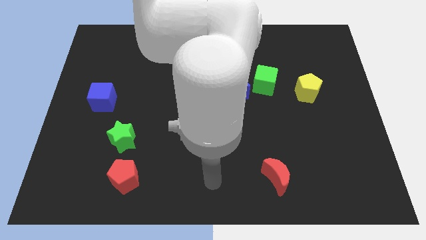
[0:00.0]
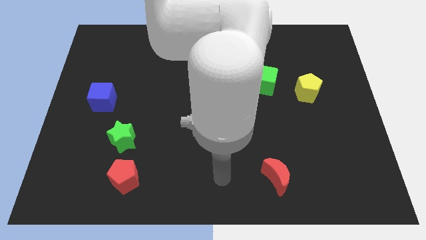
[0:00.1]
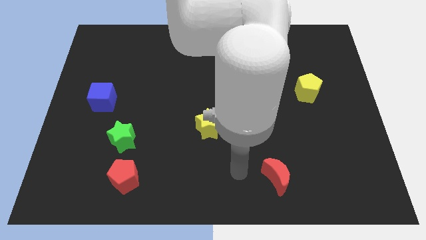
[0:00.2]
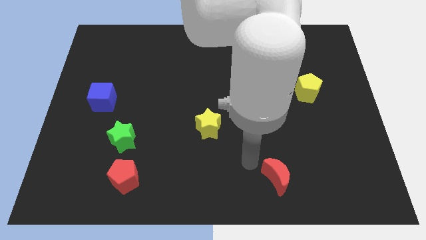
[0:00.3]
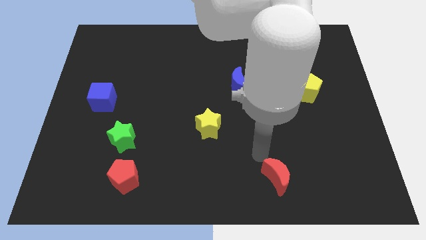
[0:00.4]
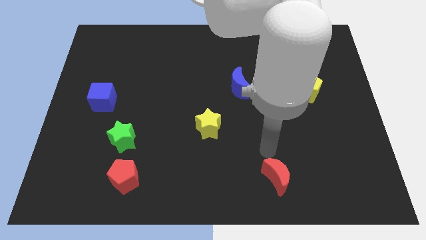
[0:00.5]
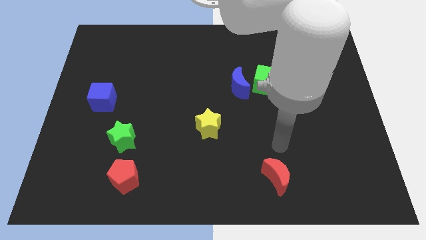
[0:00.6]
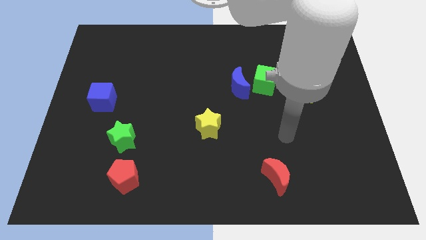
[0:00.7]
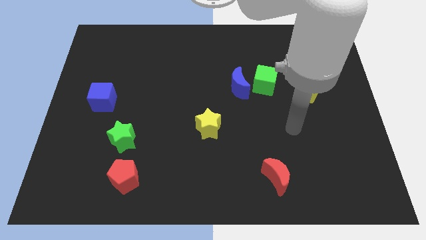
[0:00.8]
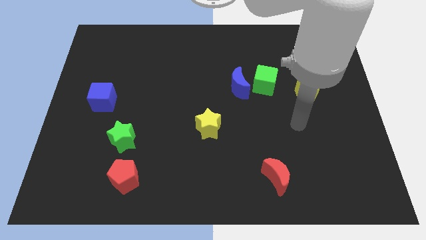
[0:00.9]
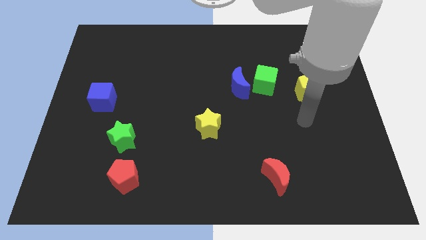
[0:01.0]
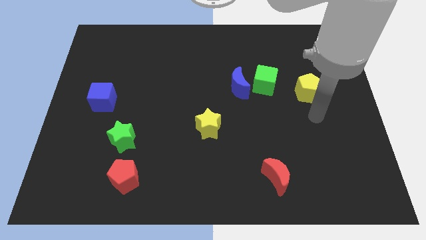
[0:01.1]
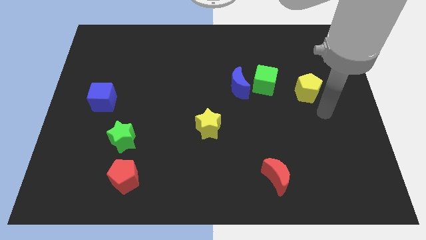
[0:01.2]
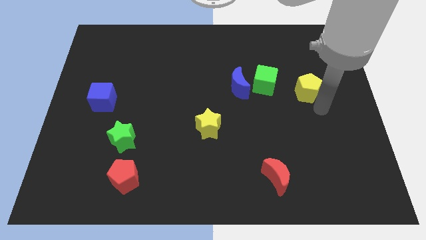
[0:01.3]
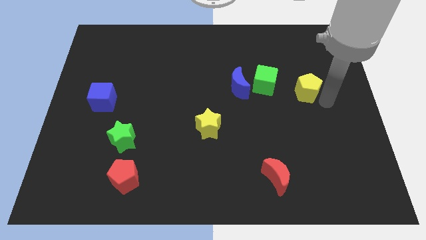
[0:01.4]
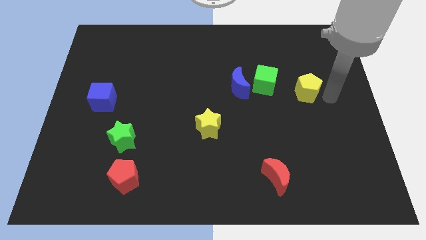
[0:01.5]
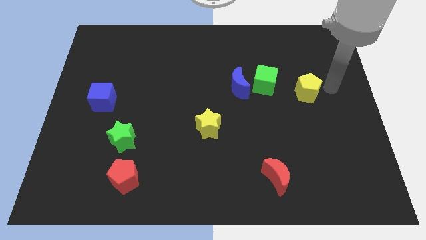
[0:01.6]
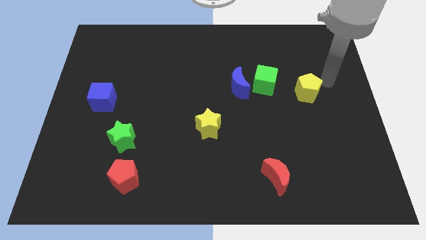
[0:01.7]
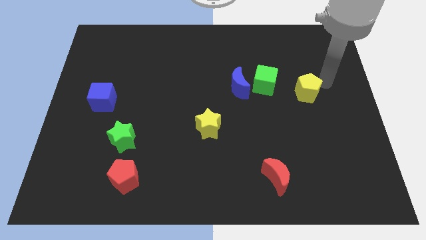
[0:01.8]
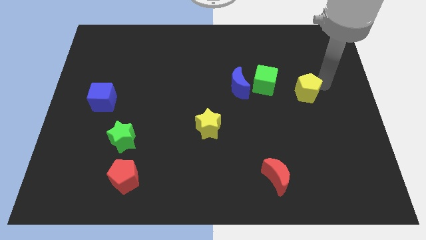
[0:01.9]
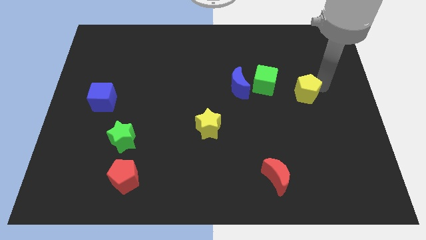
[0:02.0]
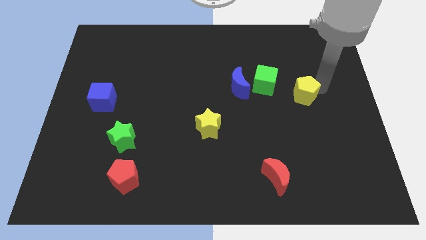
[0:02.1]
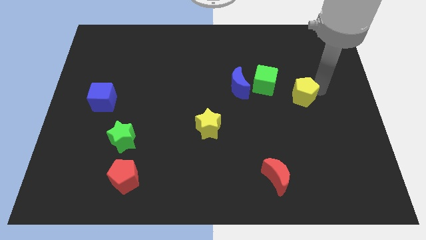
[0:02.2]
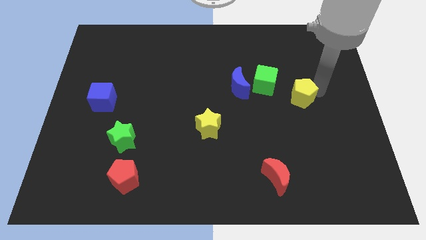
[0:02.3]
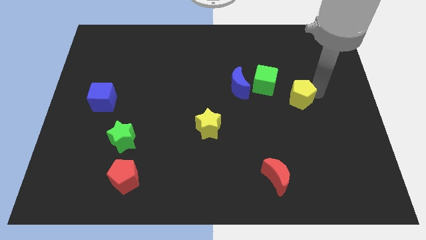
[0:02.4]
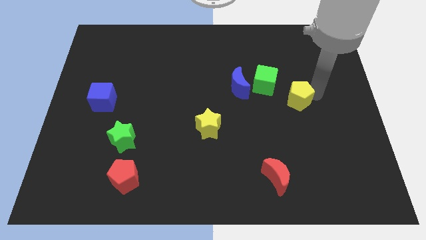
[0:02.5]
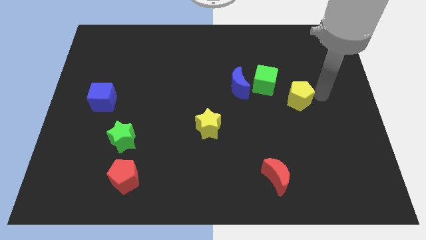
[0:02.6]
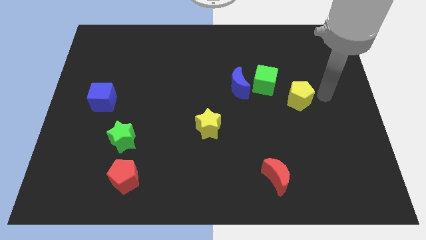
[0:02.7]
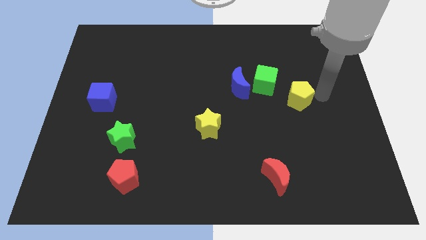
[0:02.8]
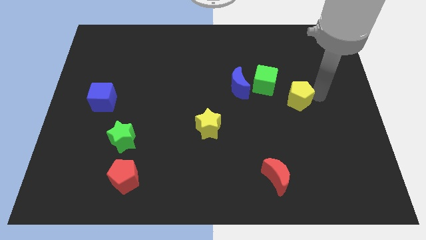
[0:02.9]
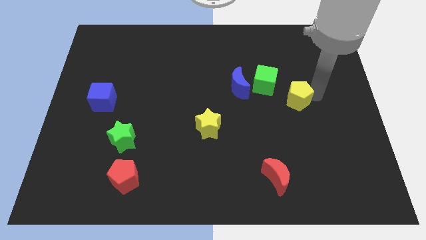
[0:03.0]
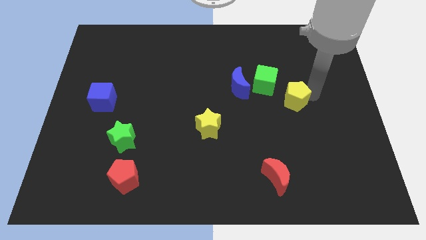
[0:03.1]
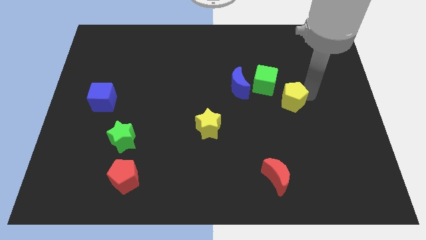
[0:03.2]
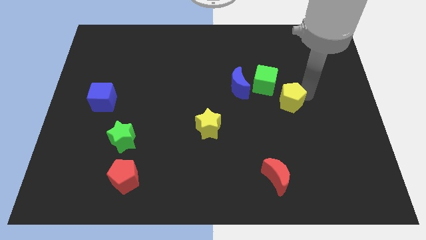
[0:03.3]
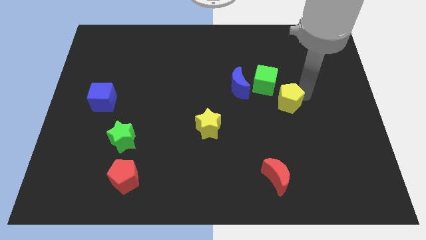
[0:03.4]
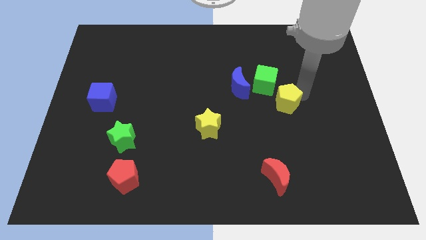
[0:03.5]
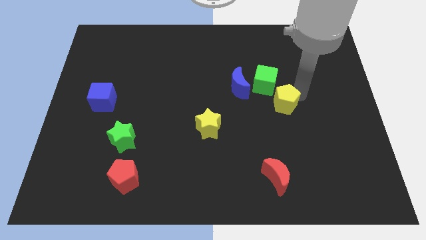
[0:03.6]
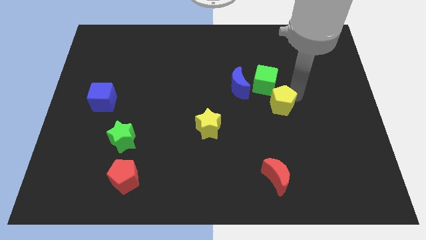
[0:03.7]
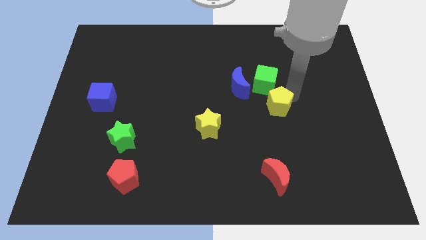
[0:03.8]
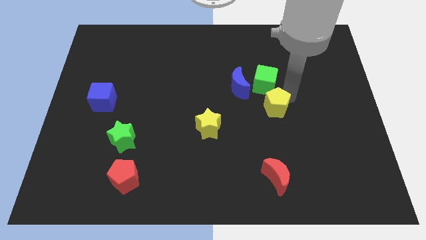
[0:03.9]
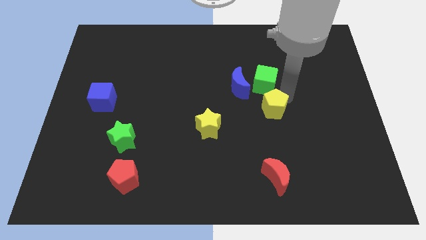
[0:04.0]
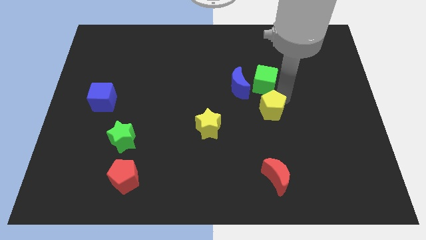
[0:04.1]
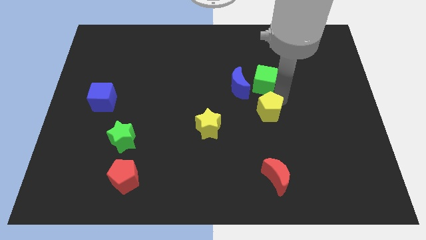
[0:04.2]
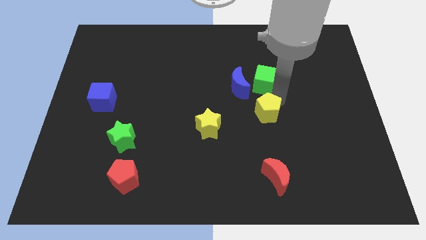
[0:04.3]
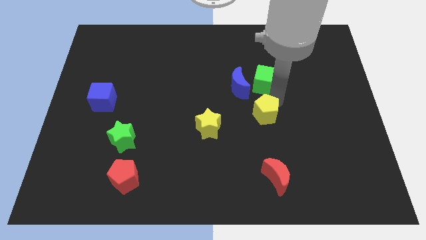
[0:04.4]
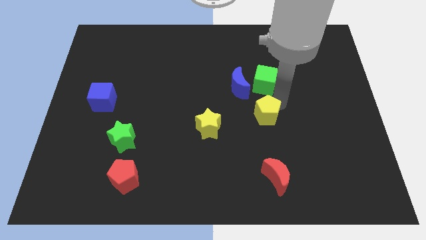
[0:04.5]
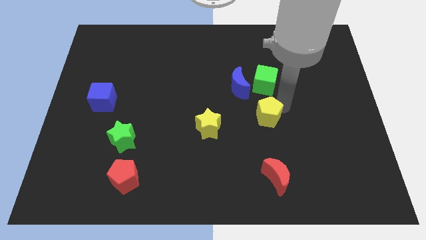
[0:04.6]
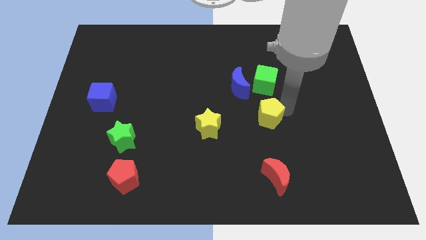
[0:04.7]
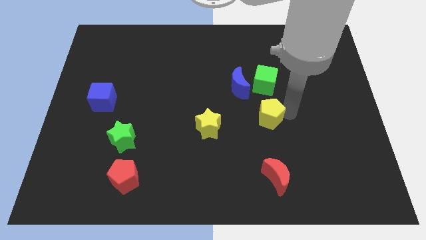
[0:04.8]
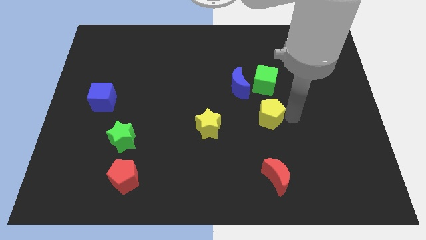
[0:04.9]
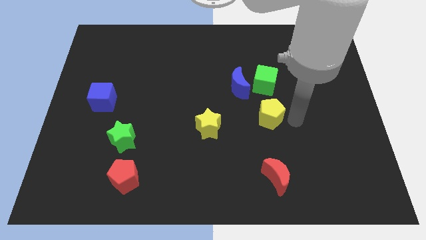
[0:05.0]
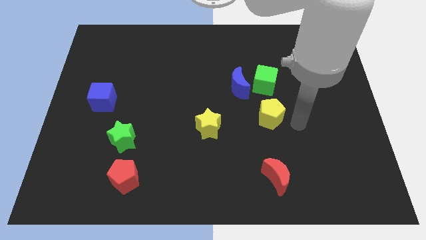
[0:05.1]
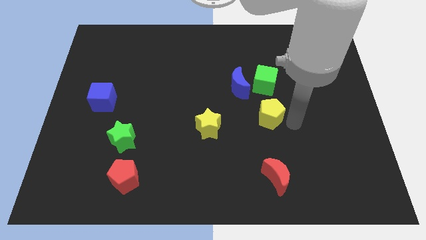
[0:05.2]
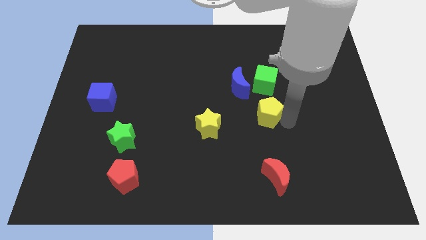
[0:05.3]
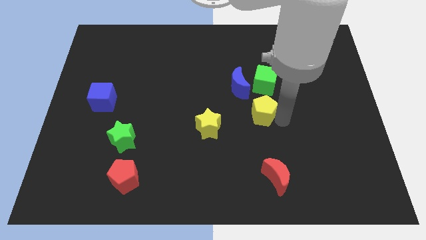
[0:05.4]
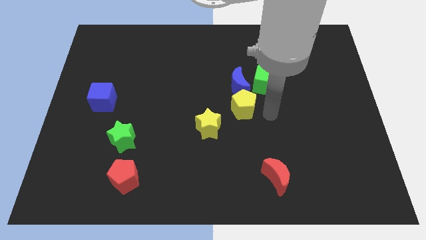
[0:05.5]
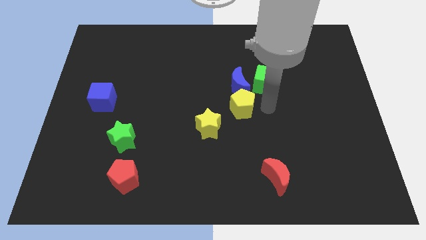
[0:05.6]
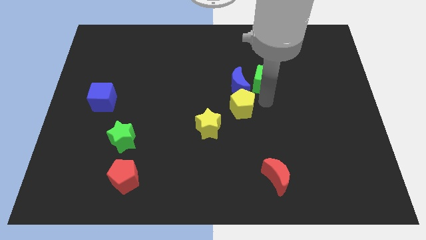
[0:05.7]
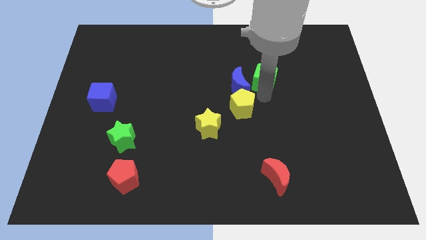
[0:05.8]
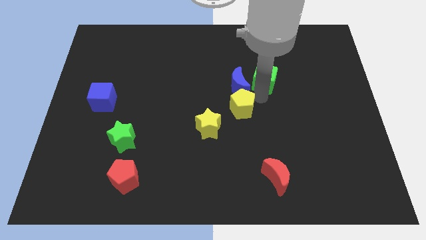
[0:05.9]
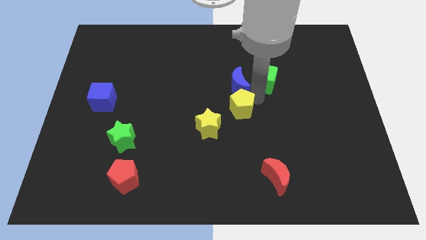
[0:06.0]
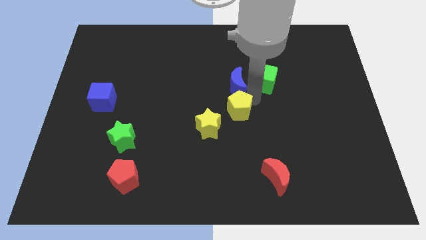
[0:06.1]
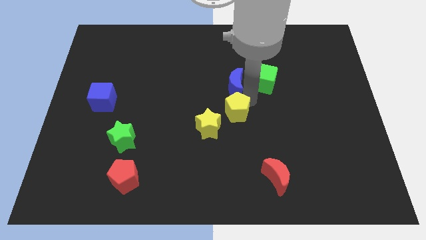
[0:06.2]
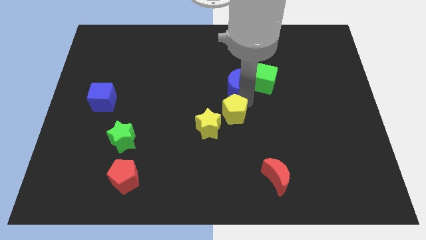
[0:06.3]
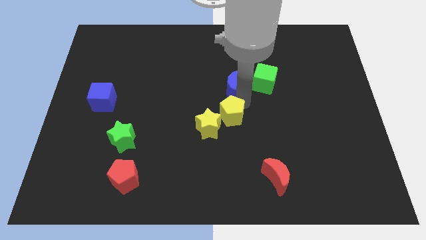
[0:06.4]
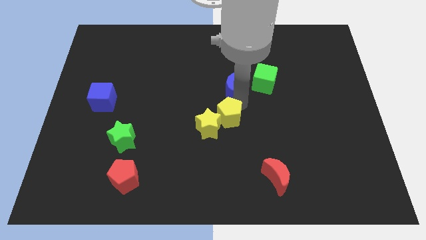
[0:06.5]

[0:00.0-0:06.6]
slide the yellow pentagon to the yellow star
